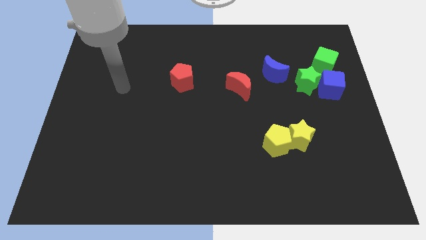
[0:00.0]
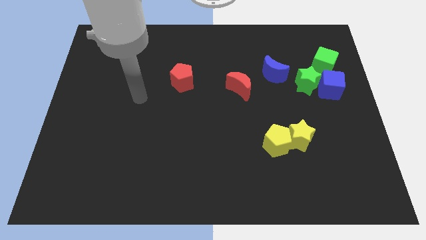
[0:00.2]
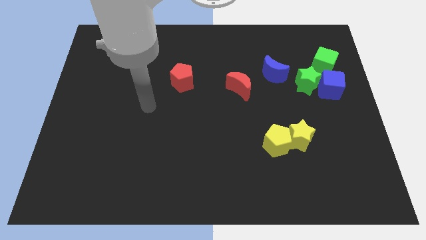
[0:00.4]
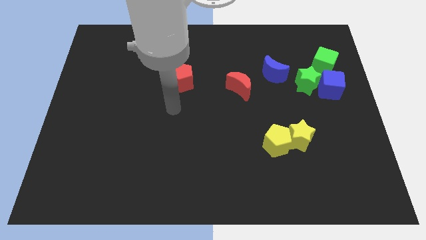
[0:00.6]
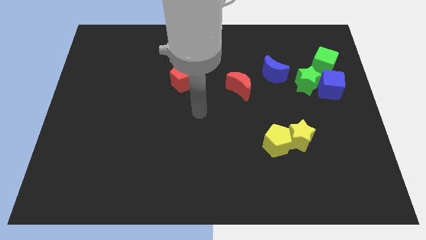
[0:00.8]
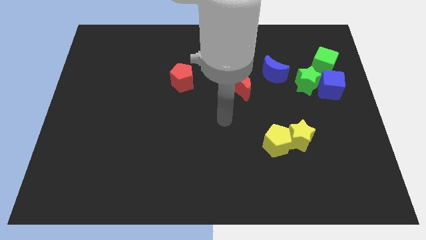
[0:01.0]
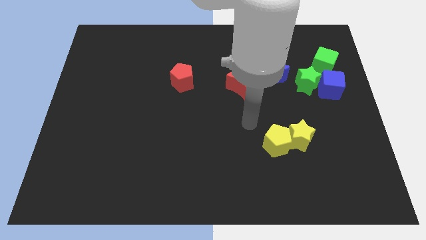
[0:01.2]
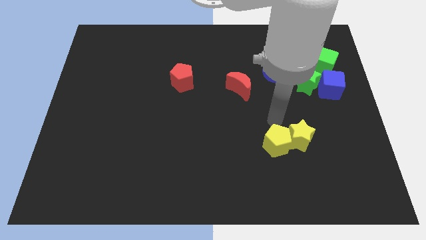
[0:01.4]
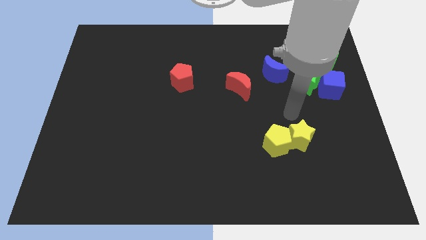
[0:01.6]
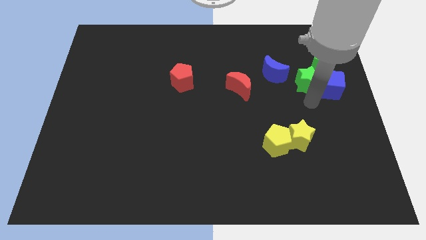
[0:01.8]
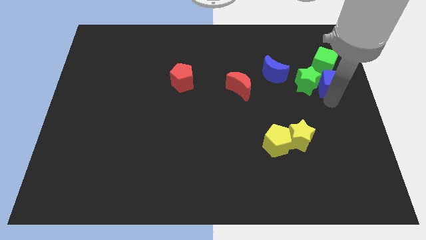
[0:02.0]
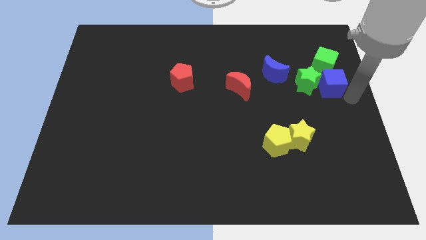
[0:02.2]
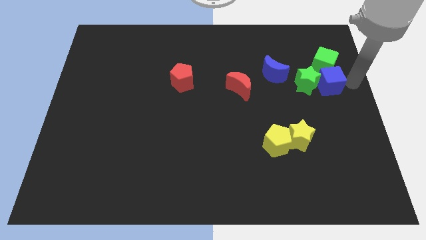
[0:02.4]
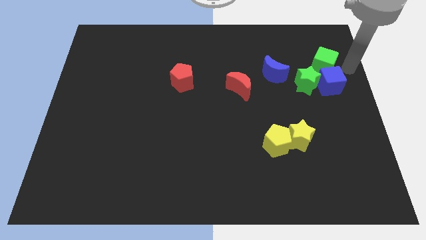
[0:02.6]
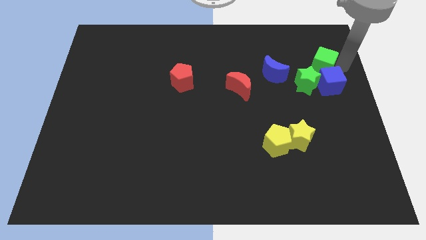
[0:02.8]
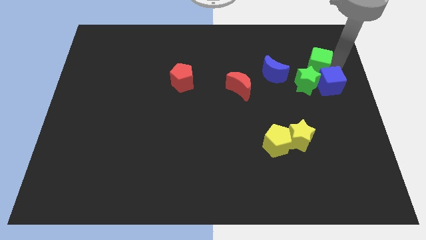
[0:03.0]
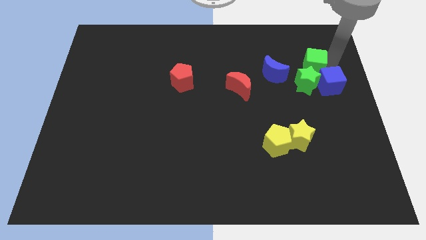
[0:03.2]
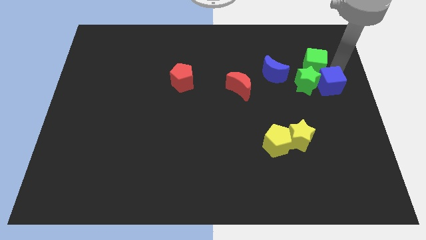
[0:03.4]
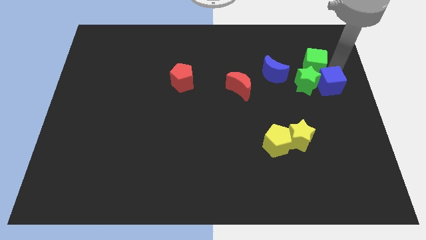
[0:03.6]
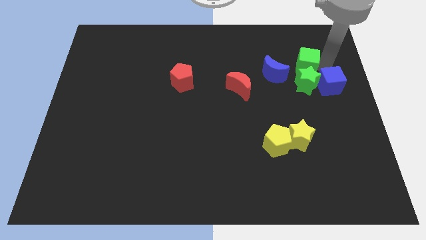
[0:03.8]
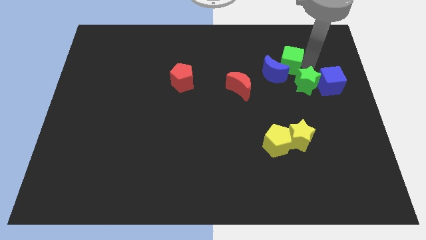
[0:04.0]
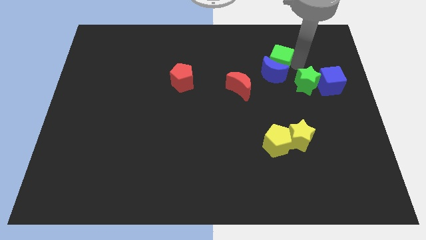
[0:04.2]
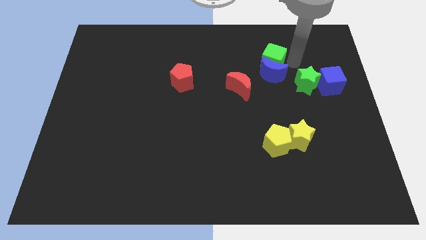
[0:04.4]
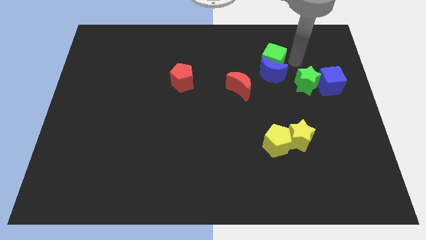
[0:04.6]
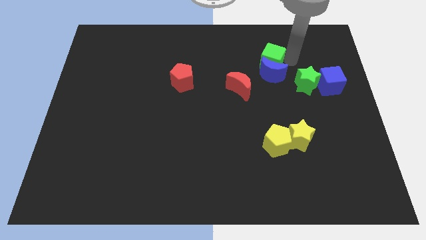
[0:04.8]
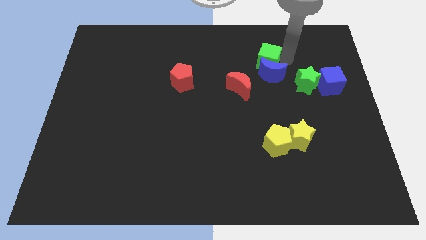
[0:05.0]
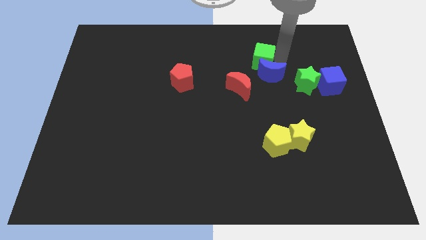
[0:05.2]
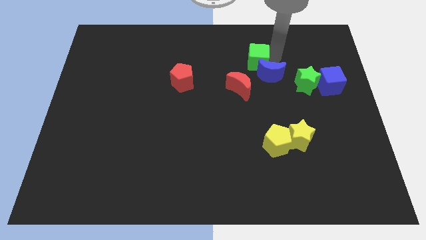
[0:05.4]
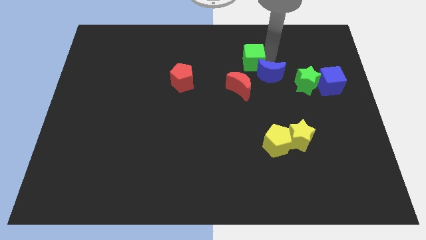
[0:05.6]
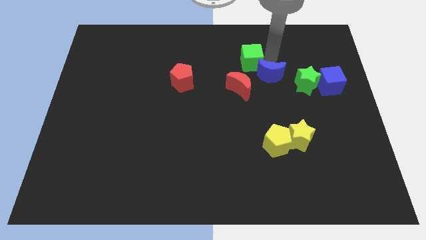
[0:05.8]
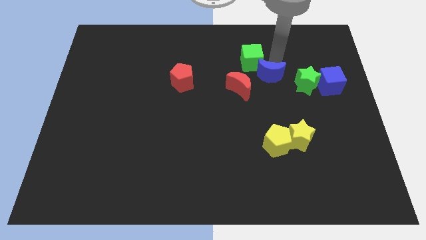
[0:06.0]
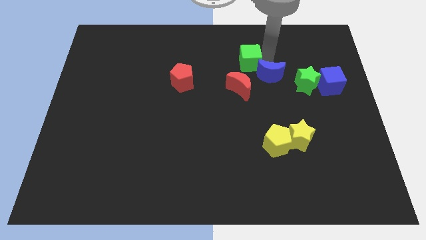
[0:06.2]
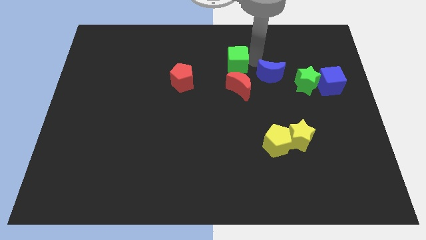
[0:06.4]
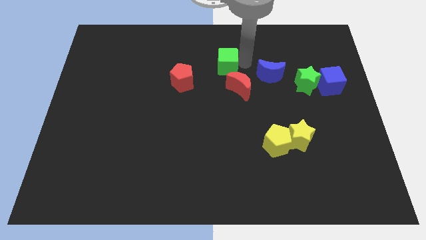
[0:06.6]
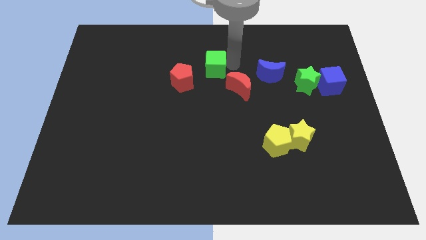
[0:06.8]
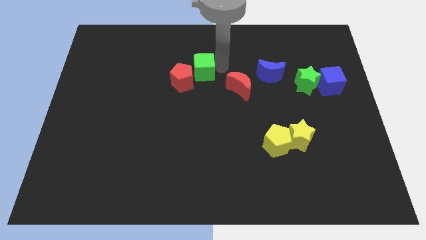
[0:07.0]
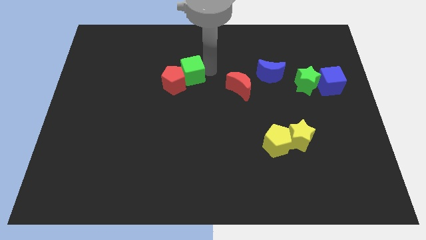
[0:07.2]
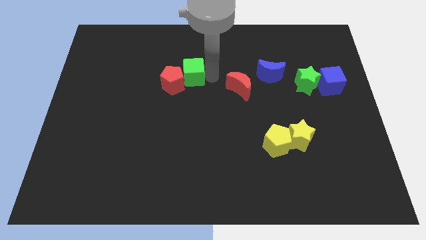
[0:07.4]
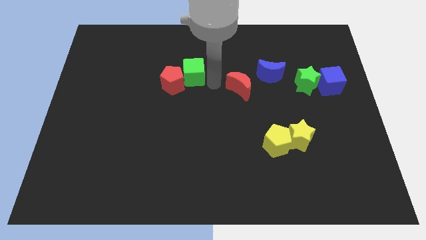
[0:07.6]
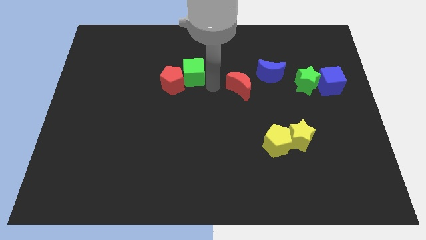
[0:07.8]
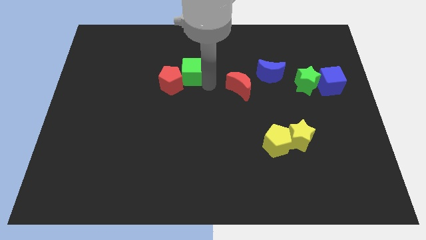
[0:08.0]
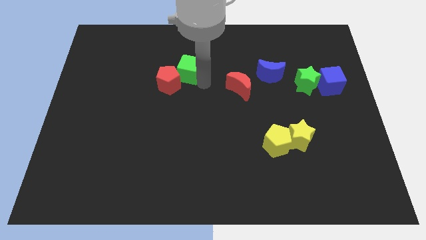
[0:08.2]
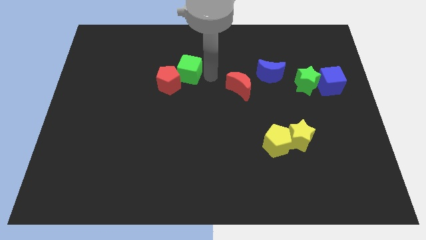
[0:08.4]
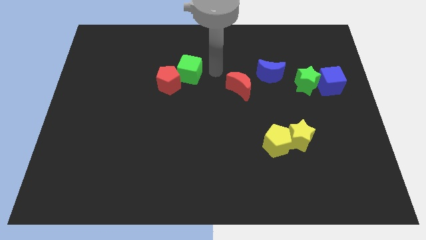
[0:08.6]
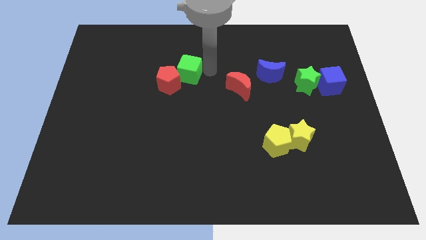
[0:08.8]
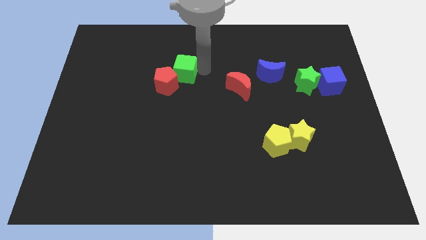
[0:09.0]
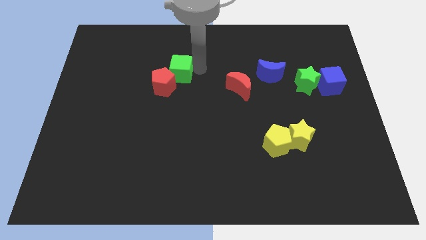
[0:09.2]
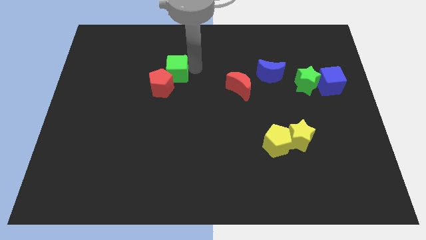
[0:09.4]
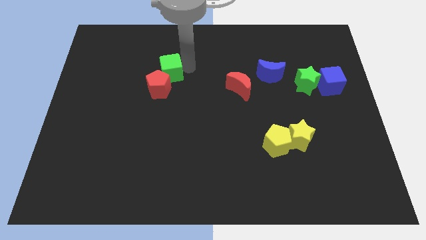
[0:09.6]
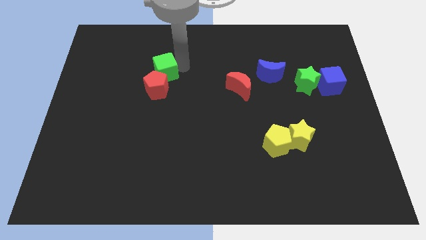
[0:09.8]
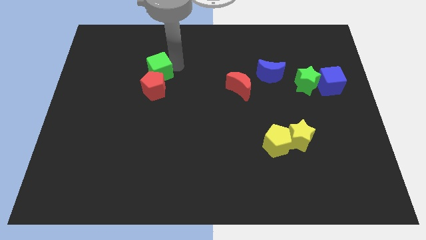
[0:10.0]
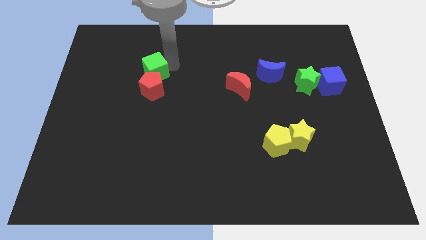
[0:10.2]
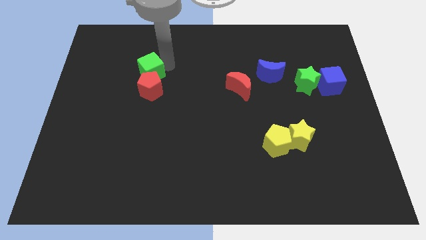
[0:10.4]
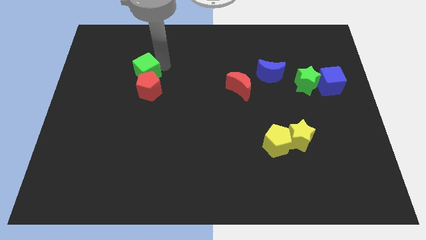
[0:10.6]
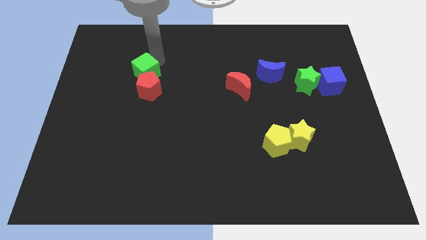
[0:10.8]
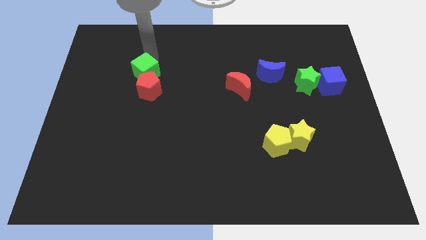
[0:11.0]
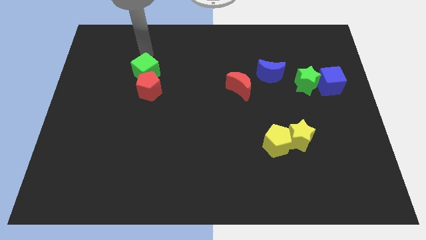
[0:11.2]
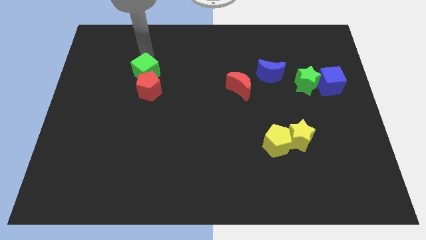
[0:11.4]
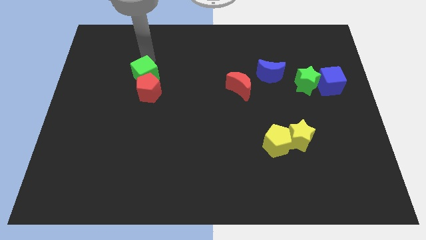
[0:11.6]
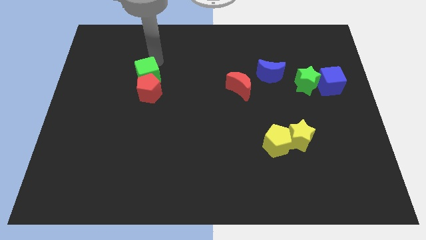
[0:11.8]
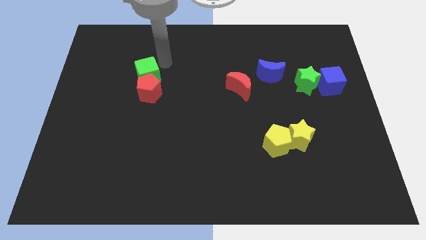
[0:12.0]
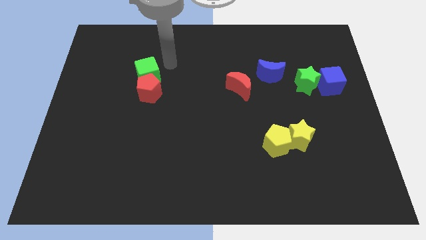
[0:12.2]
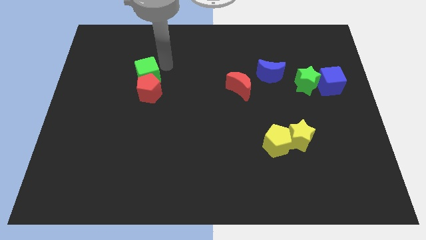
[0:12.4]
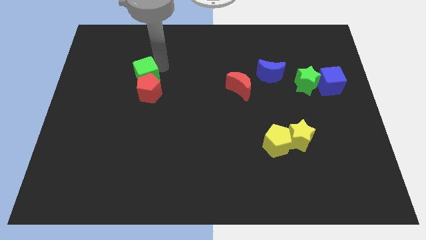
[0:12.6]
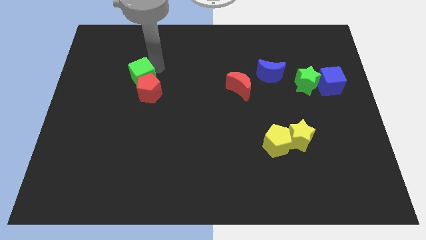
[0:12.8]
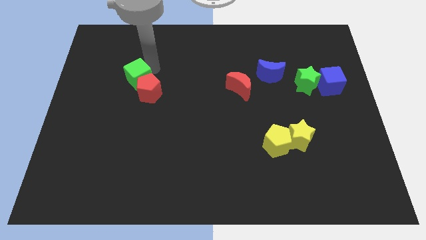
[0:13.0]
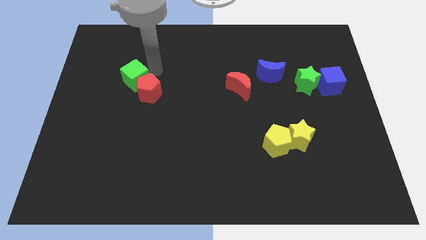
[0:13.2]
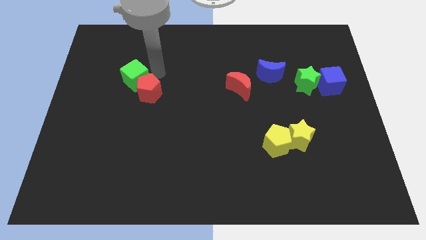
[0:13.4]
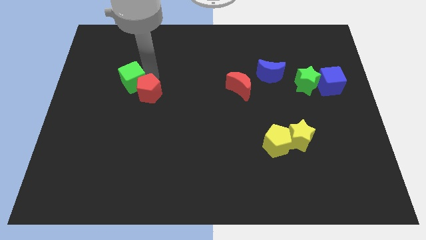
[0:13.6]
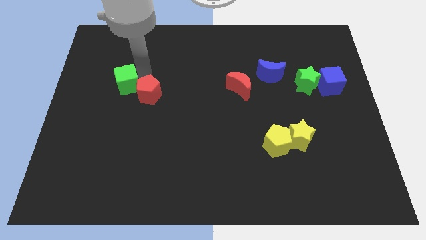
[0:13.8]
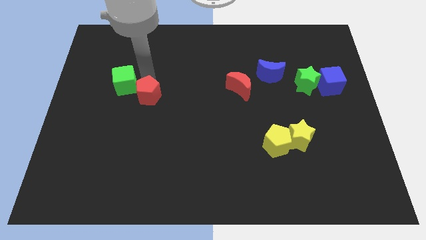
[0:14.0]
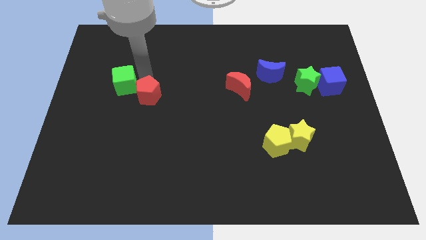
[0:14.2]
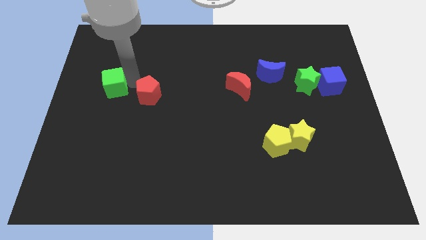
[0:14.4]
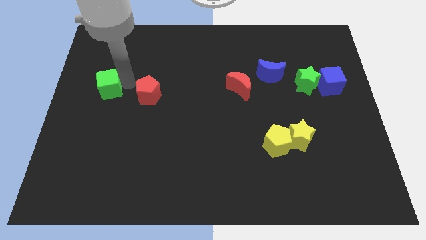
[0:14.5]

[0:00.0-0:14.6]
put the green cube to the center left
